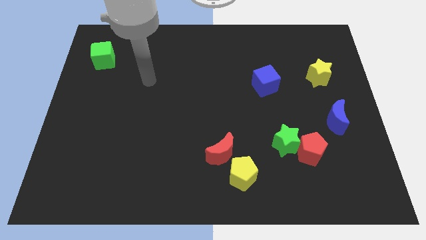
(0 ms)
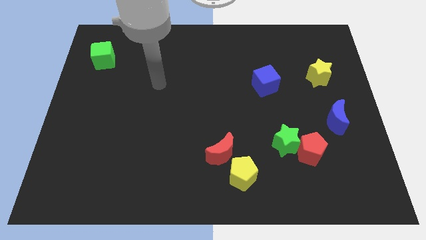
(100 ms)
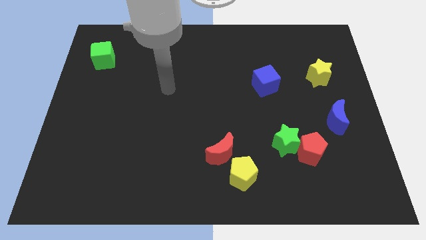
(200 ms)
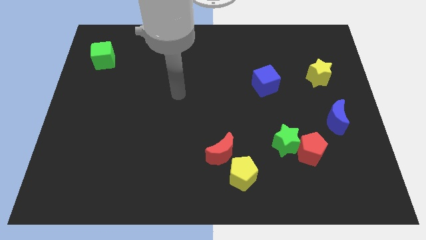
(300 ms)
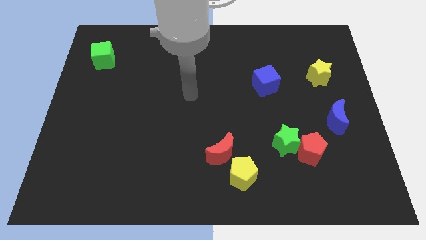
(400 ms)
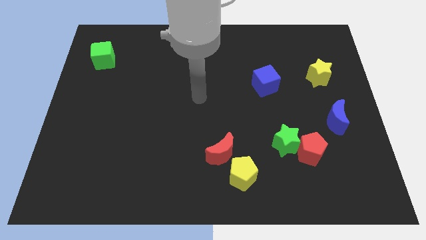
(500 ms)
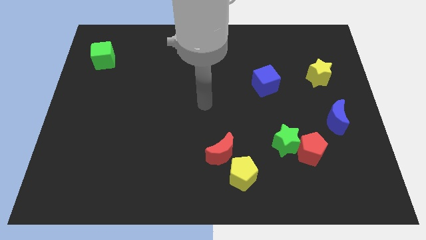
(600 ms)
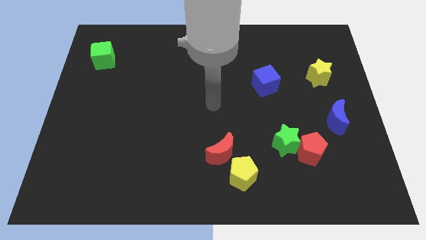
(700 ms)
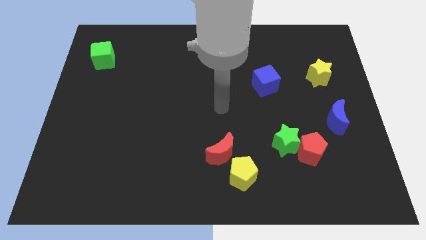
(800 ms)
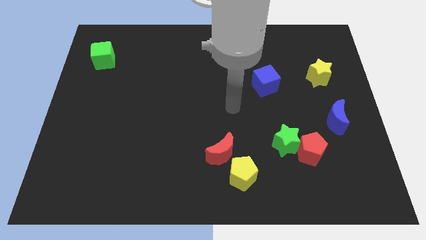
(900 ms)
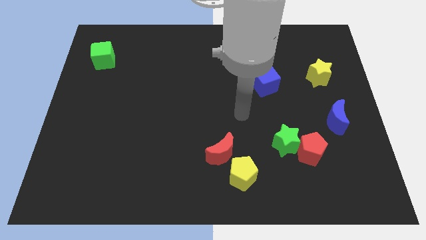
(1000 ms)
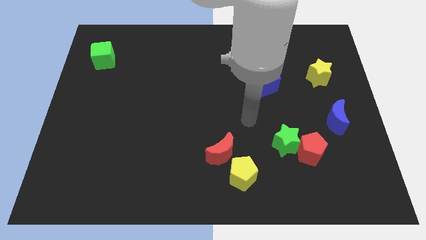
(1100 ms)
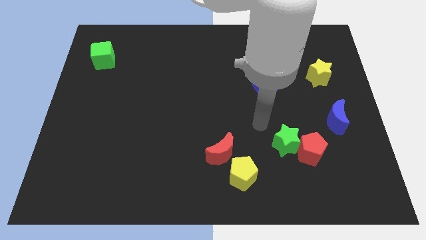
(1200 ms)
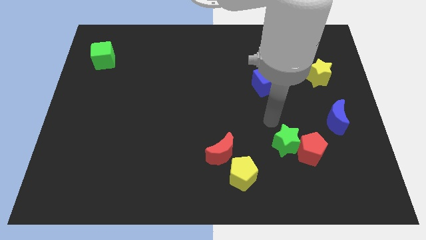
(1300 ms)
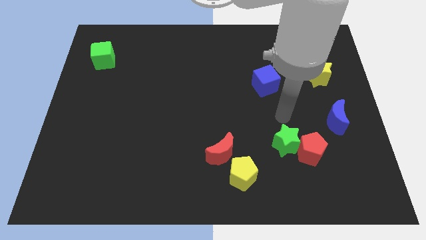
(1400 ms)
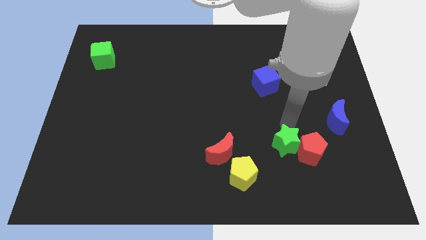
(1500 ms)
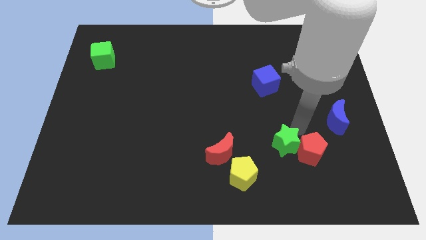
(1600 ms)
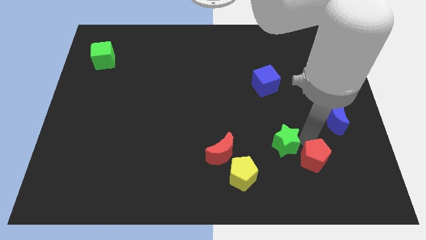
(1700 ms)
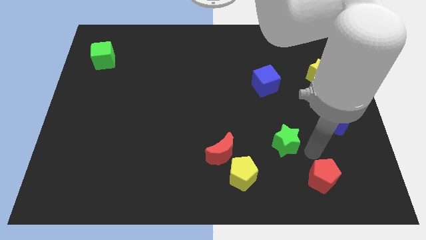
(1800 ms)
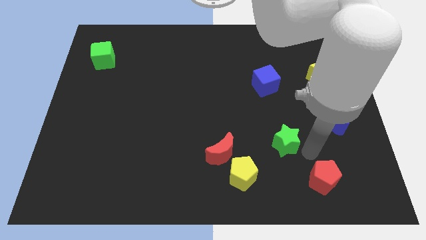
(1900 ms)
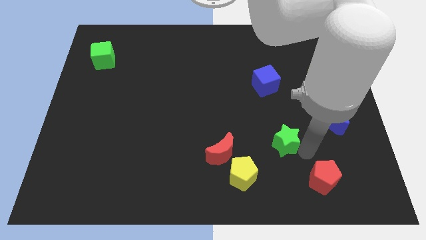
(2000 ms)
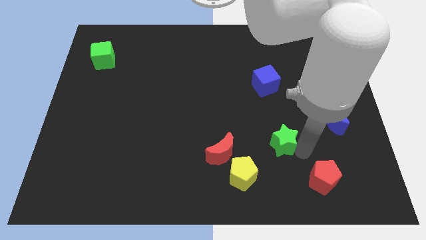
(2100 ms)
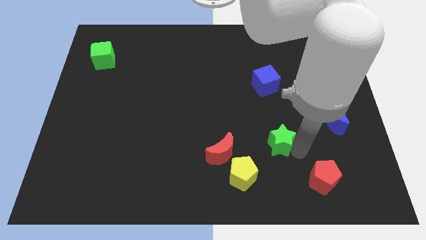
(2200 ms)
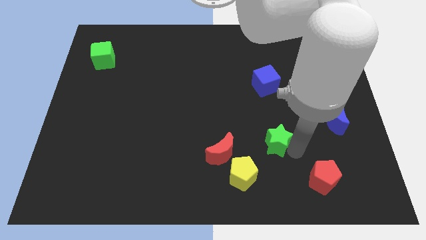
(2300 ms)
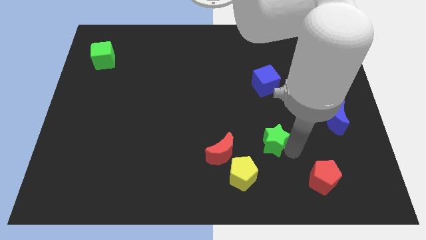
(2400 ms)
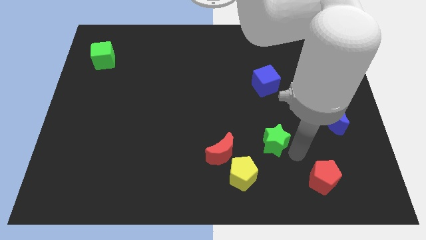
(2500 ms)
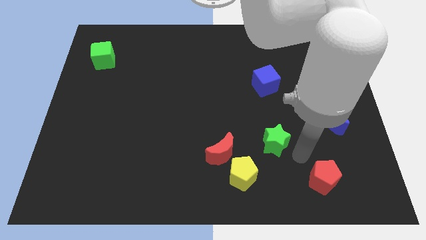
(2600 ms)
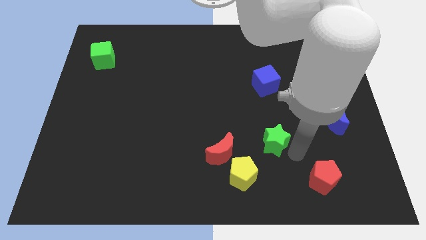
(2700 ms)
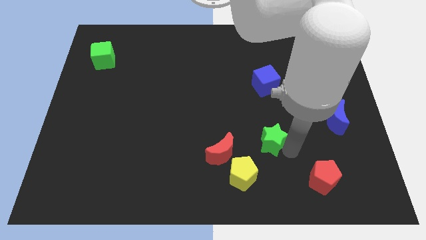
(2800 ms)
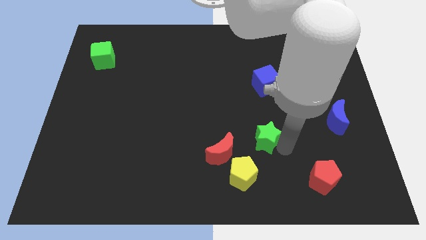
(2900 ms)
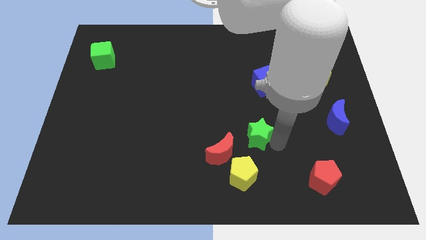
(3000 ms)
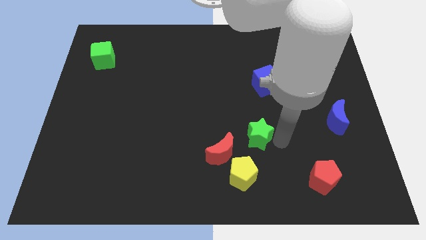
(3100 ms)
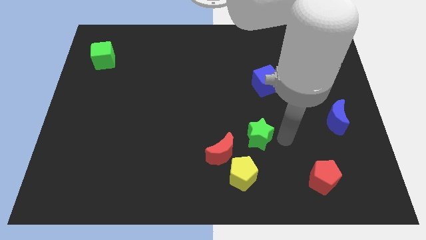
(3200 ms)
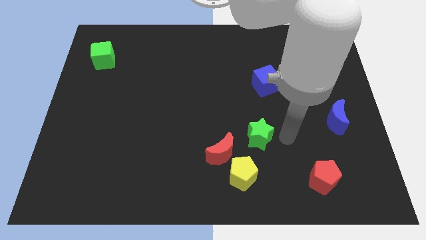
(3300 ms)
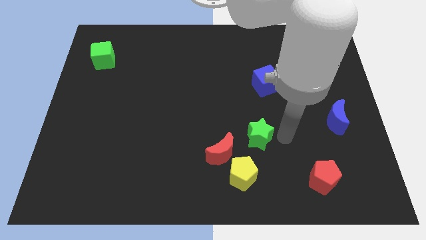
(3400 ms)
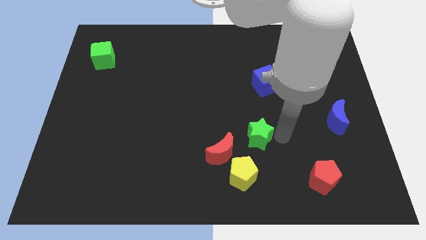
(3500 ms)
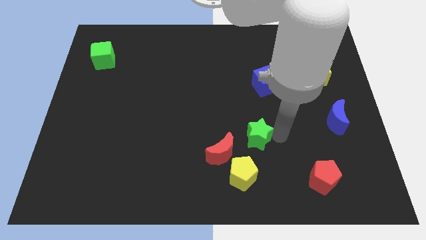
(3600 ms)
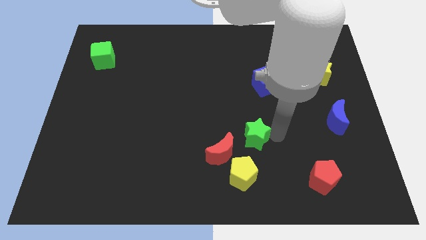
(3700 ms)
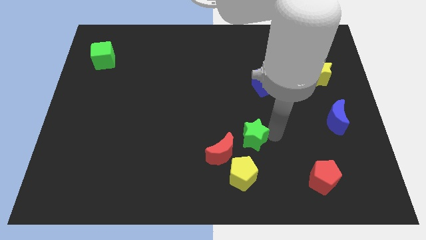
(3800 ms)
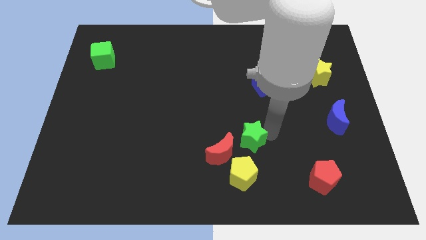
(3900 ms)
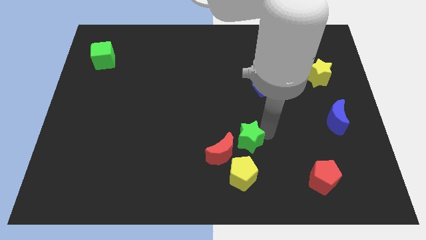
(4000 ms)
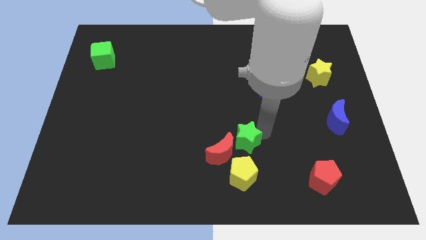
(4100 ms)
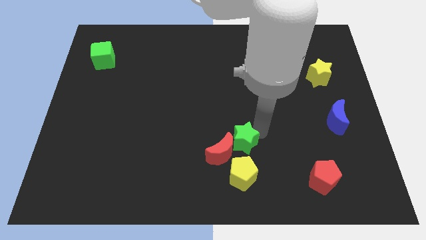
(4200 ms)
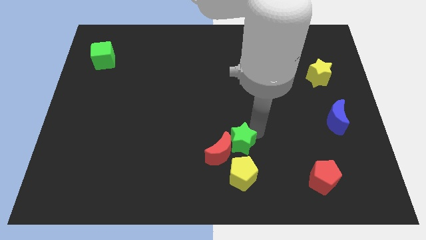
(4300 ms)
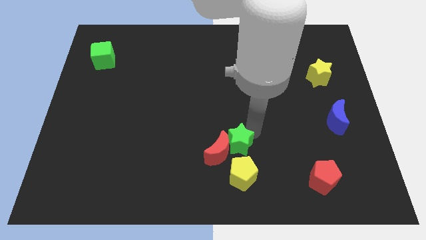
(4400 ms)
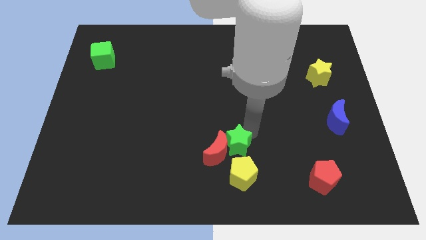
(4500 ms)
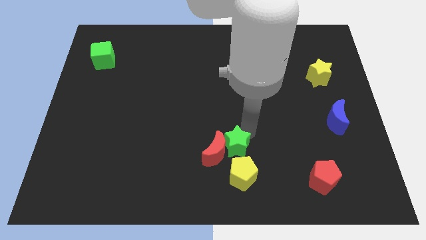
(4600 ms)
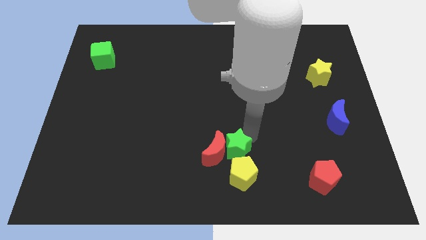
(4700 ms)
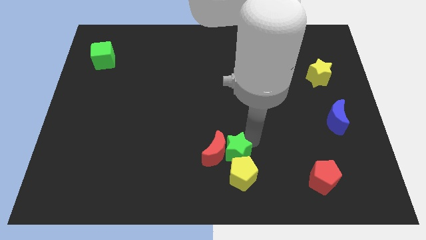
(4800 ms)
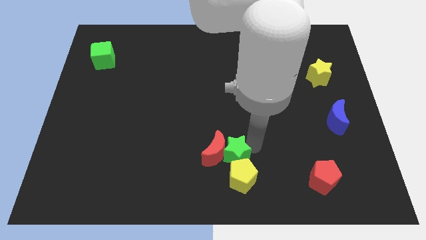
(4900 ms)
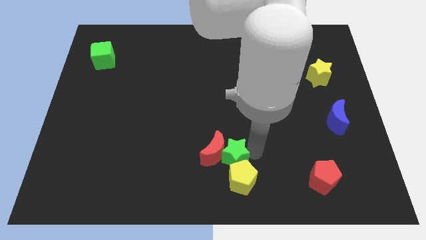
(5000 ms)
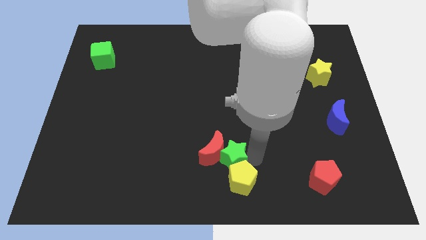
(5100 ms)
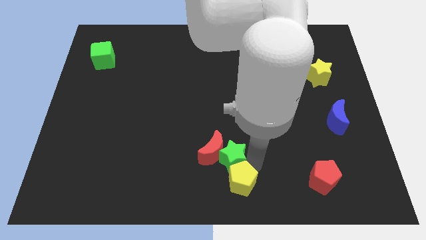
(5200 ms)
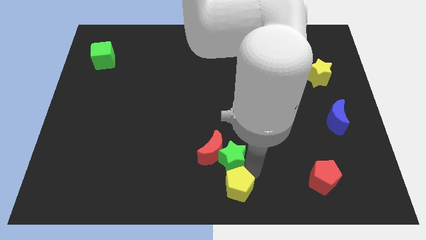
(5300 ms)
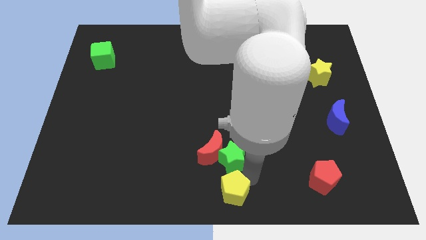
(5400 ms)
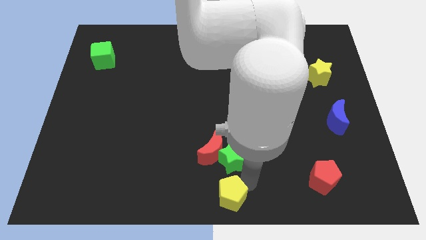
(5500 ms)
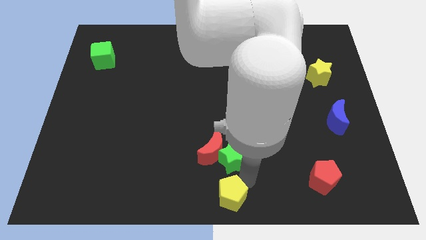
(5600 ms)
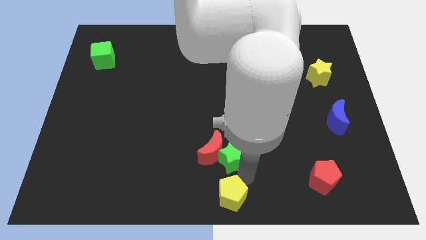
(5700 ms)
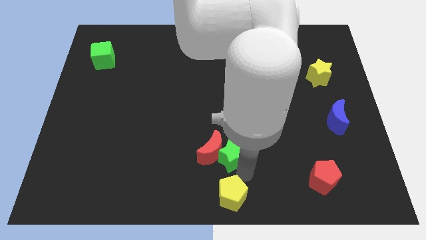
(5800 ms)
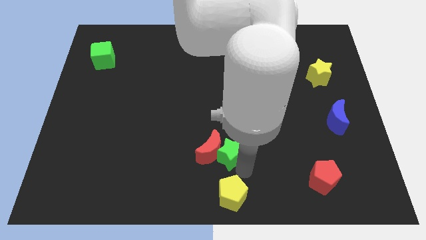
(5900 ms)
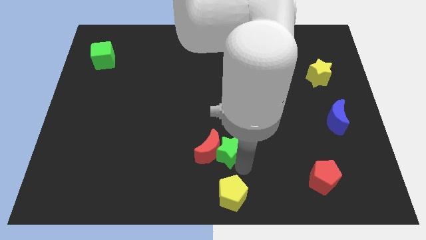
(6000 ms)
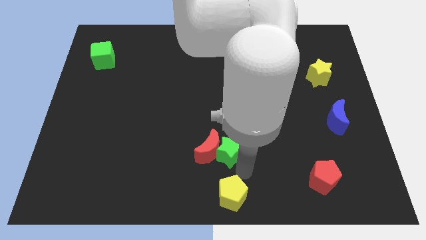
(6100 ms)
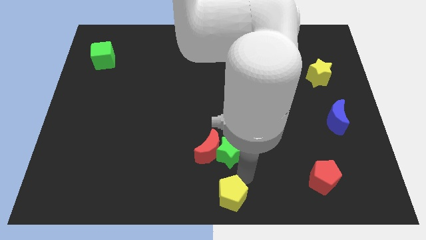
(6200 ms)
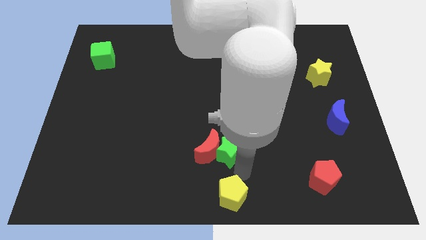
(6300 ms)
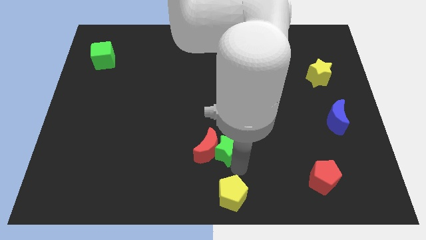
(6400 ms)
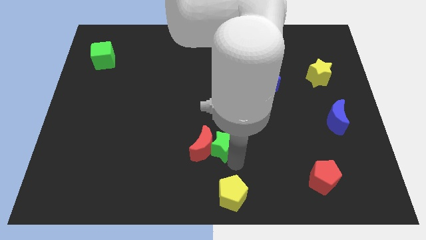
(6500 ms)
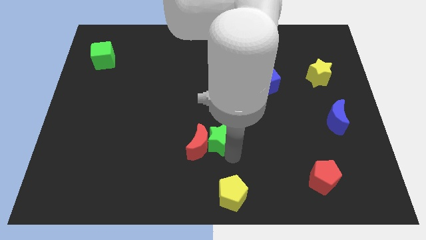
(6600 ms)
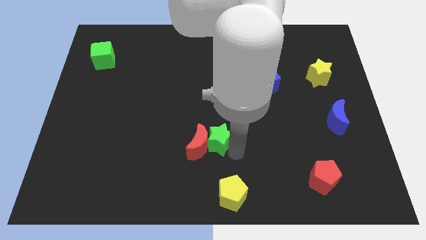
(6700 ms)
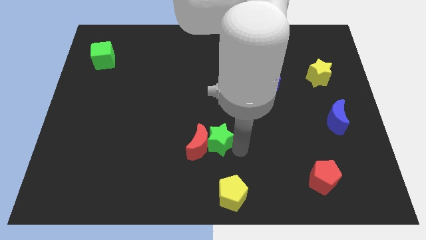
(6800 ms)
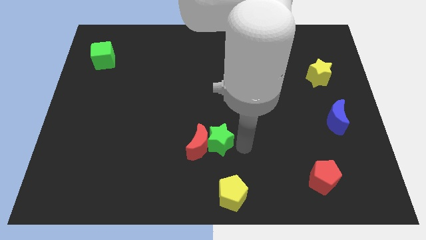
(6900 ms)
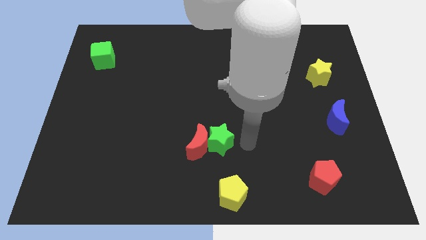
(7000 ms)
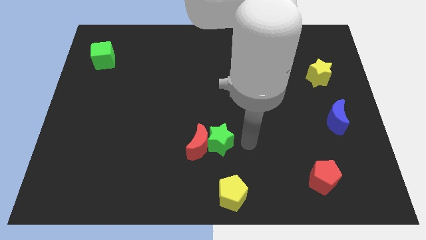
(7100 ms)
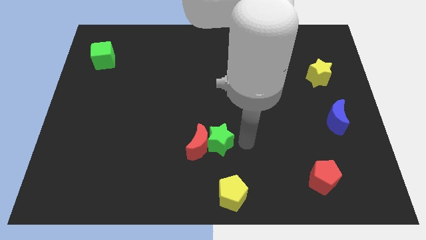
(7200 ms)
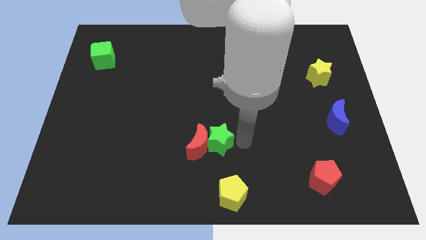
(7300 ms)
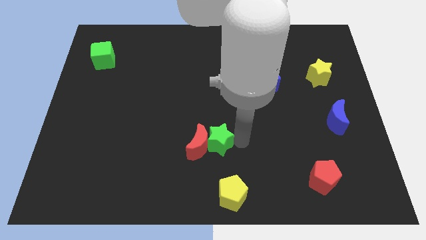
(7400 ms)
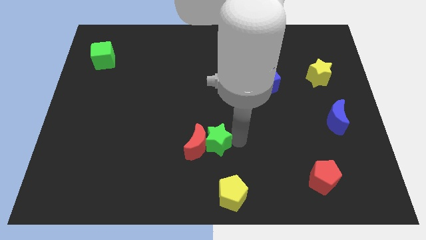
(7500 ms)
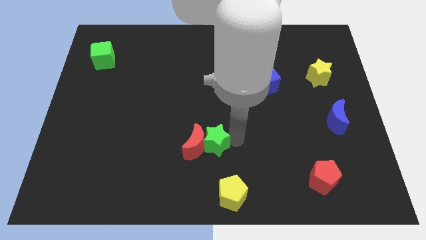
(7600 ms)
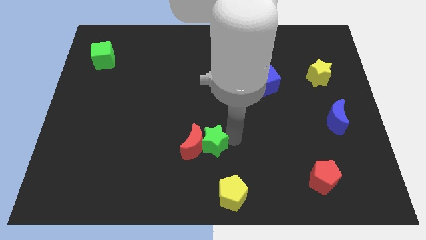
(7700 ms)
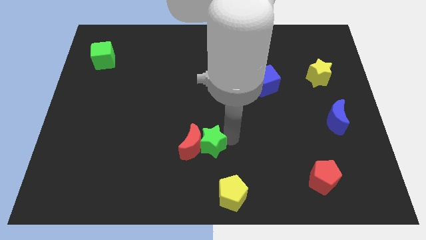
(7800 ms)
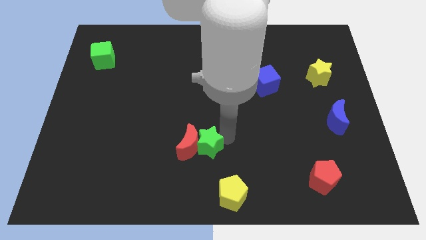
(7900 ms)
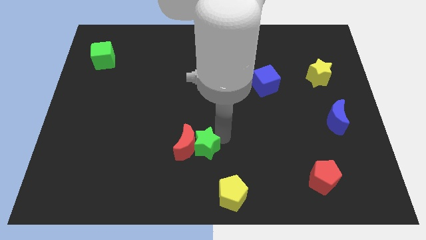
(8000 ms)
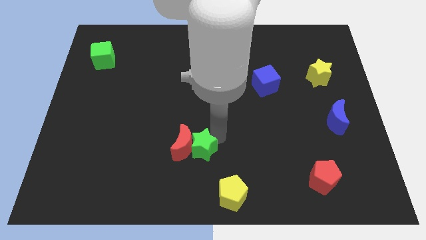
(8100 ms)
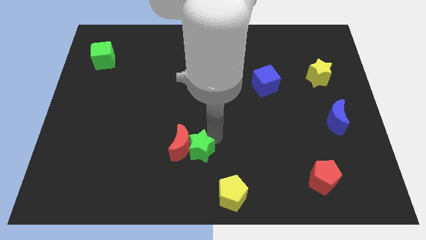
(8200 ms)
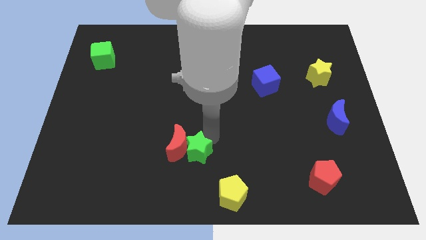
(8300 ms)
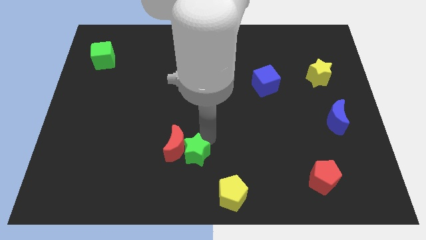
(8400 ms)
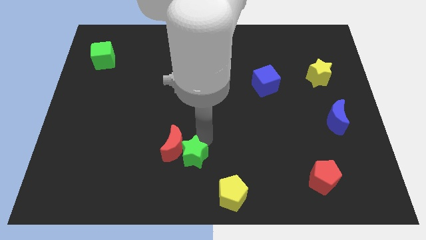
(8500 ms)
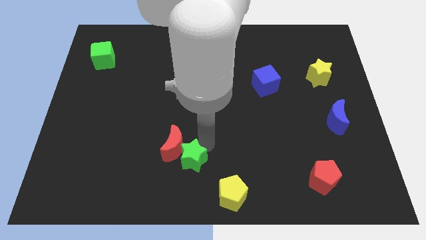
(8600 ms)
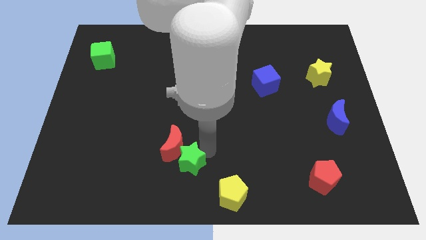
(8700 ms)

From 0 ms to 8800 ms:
push the green star to the left
